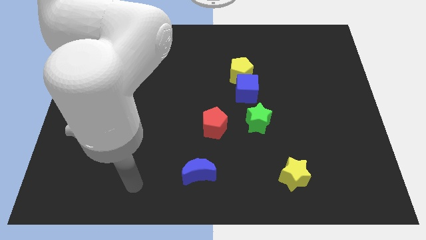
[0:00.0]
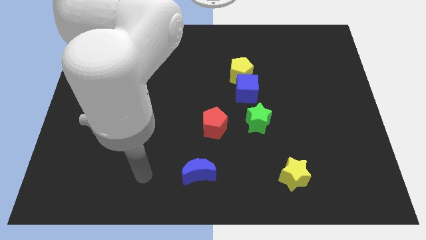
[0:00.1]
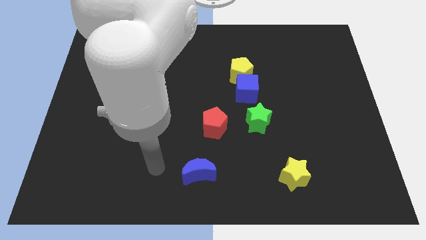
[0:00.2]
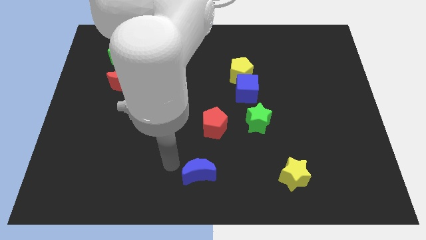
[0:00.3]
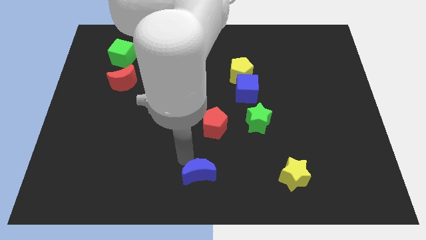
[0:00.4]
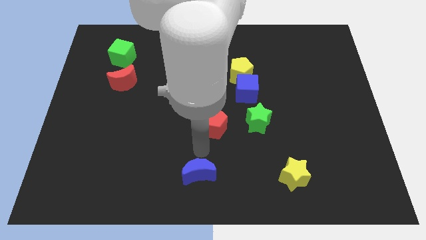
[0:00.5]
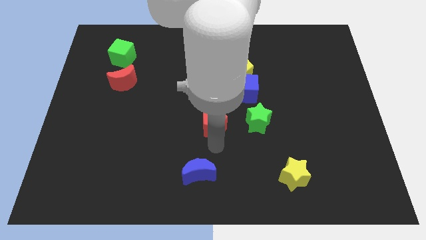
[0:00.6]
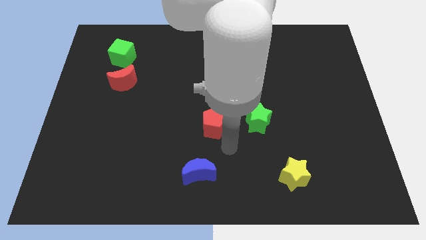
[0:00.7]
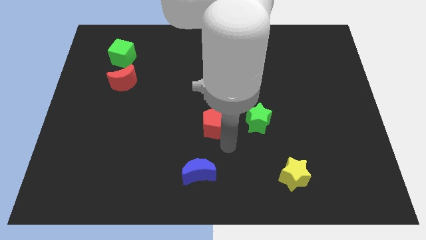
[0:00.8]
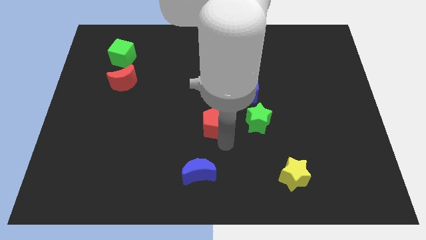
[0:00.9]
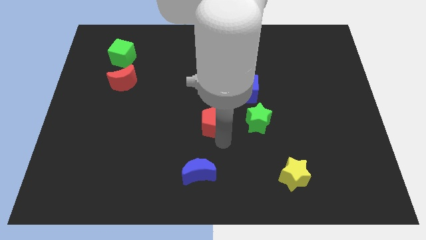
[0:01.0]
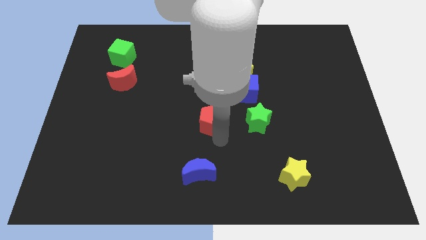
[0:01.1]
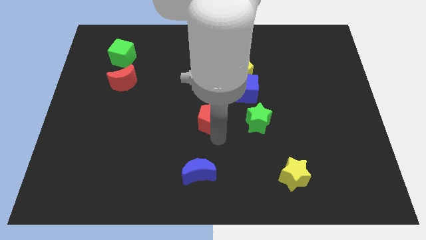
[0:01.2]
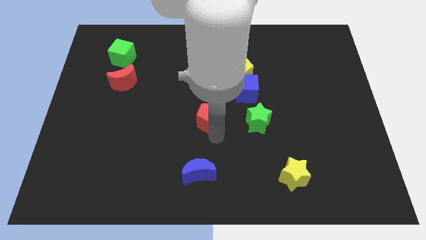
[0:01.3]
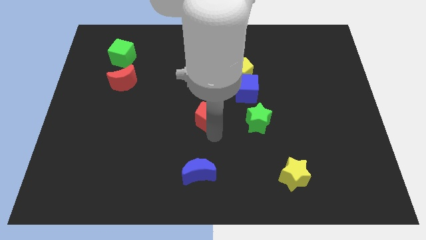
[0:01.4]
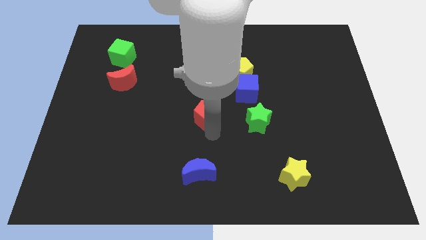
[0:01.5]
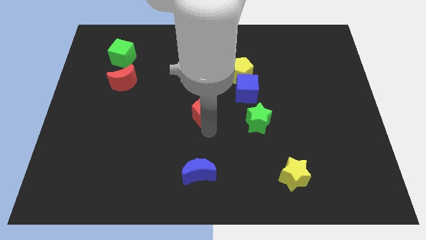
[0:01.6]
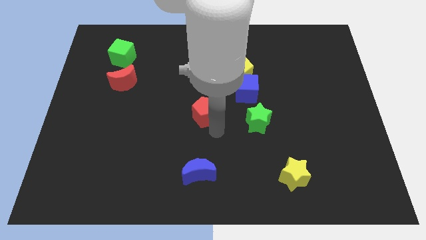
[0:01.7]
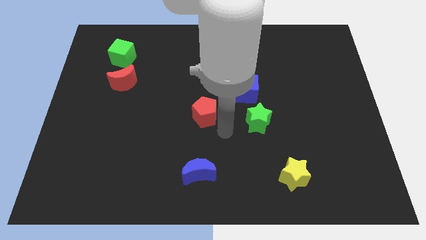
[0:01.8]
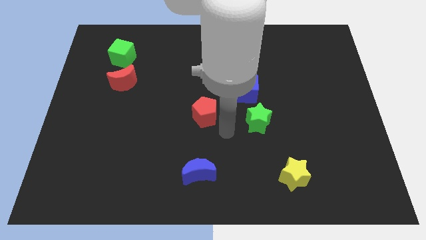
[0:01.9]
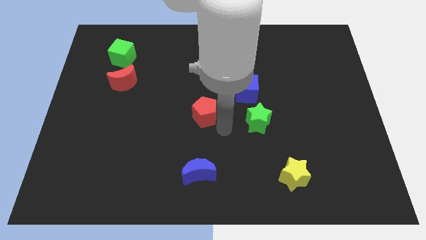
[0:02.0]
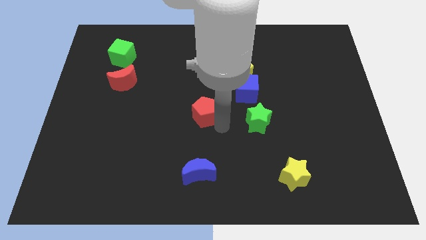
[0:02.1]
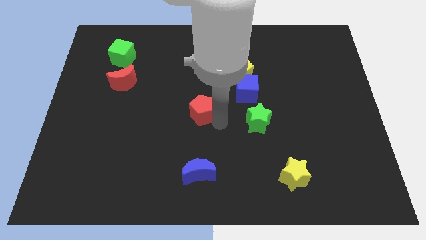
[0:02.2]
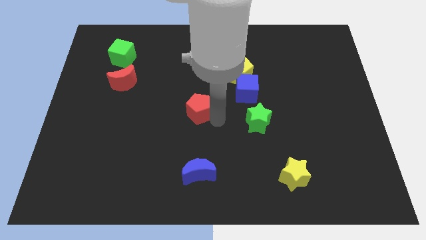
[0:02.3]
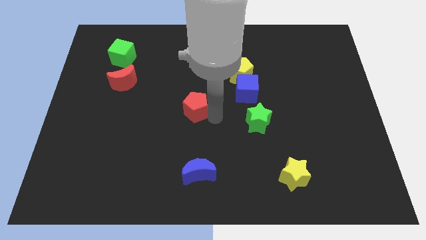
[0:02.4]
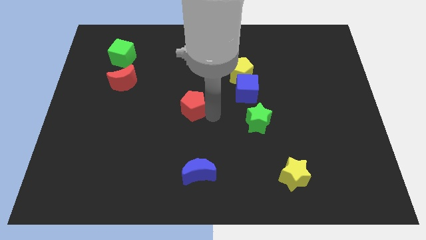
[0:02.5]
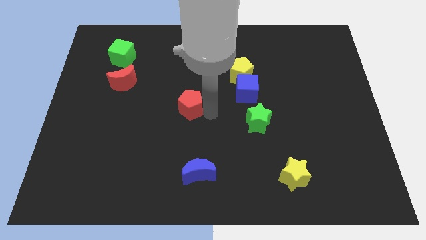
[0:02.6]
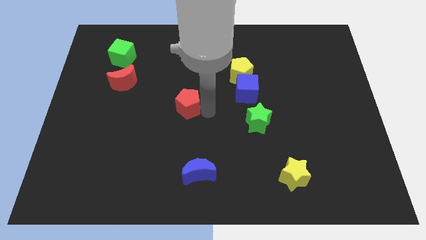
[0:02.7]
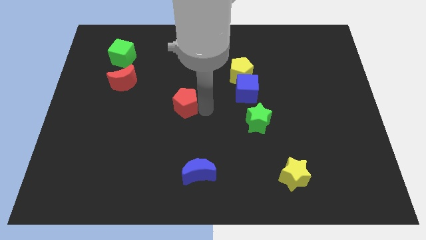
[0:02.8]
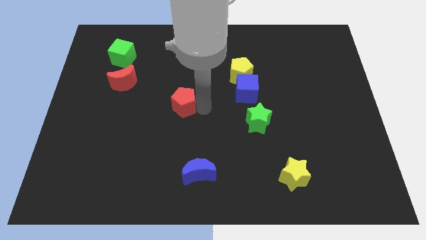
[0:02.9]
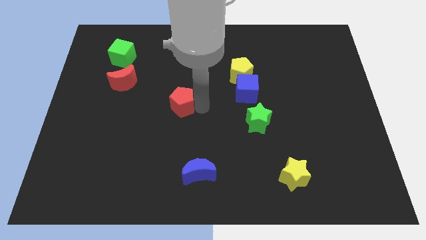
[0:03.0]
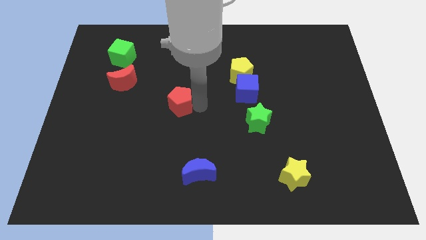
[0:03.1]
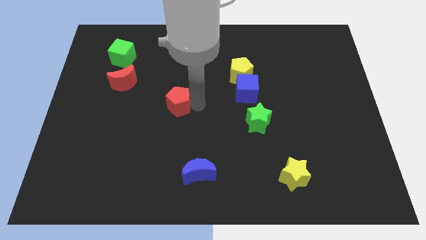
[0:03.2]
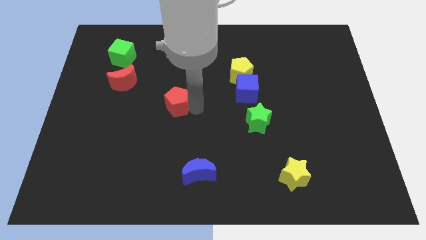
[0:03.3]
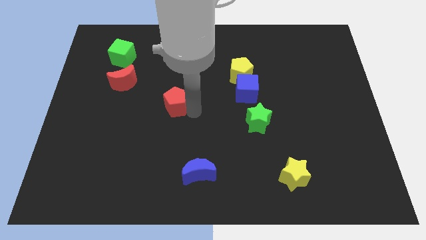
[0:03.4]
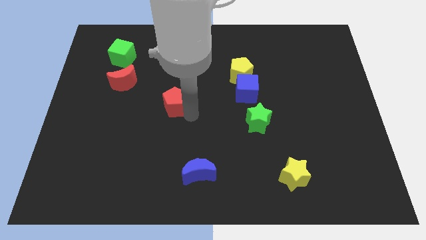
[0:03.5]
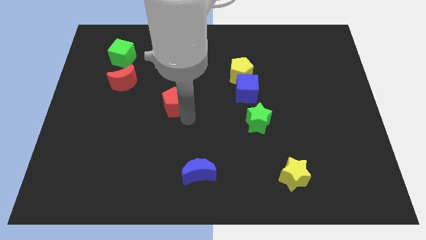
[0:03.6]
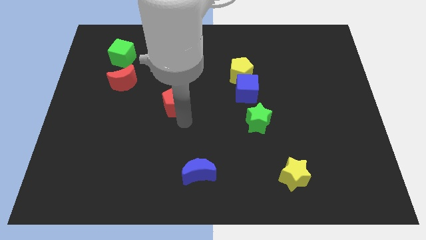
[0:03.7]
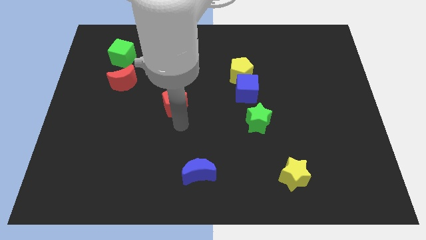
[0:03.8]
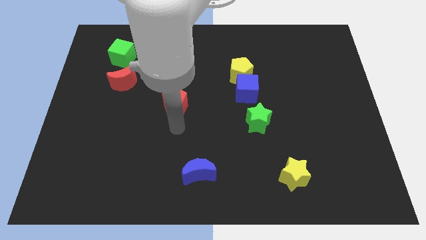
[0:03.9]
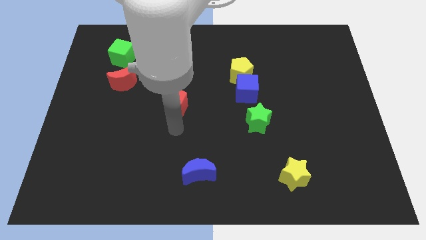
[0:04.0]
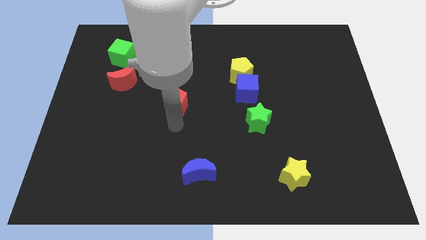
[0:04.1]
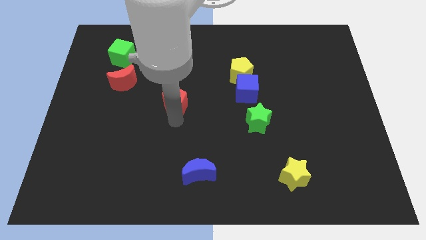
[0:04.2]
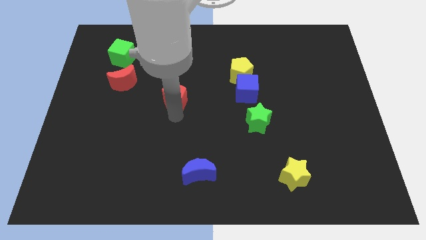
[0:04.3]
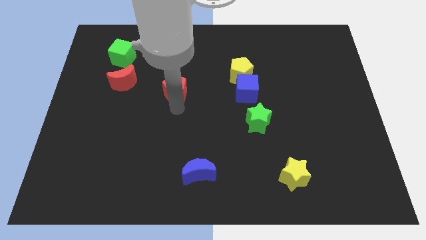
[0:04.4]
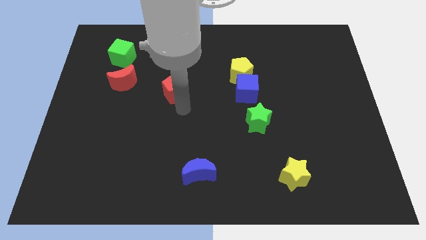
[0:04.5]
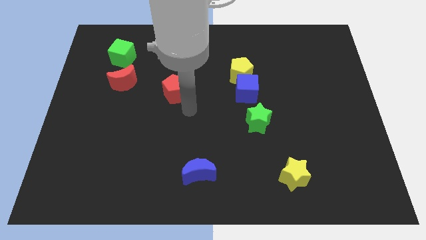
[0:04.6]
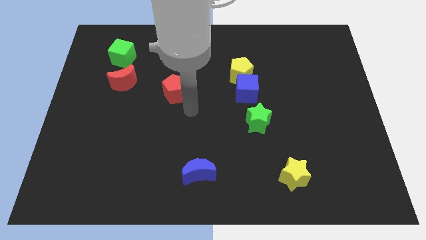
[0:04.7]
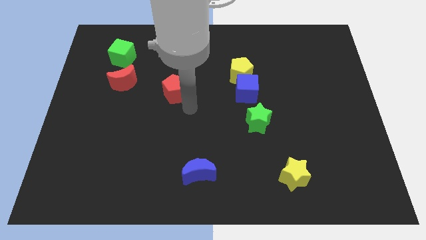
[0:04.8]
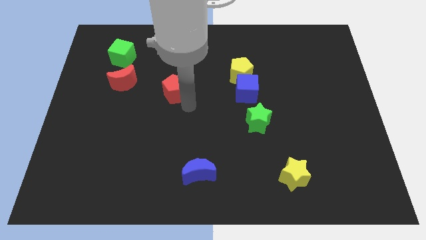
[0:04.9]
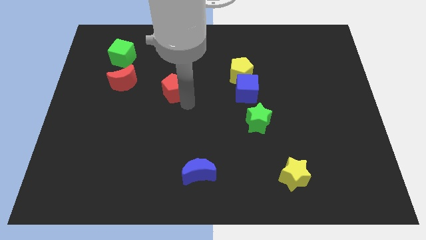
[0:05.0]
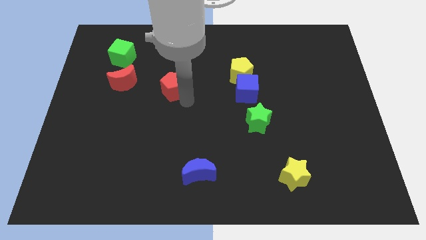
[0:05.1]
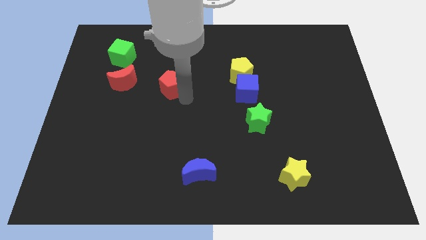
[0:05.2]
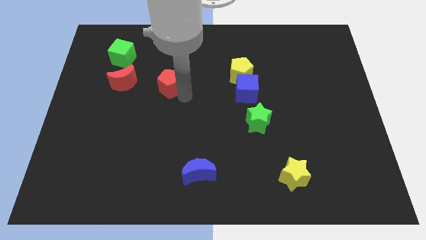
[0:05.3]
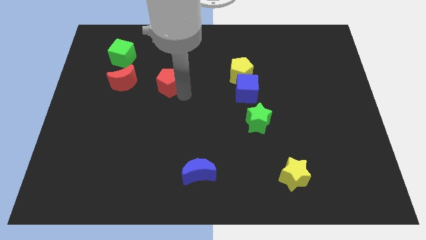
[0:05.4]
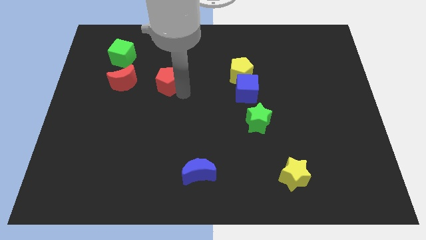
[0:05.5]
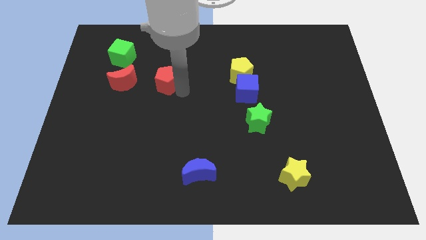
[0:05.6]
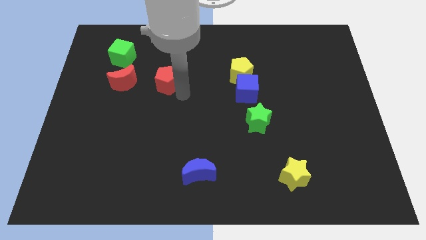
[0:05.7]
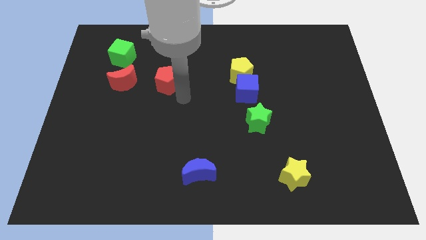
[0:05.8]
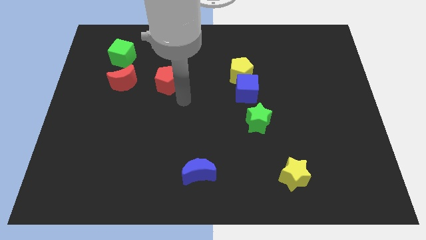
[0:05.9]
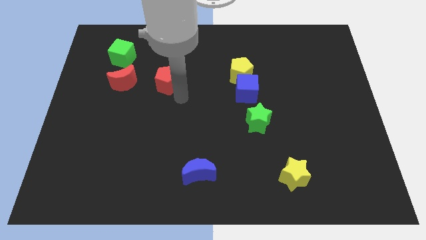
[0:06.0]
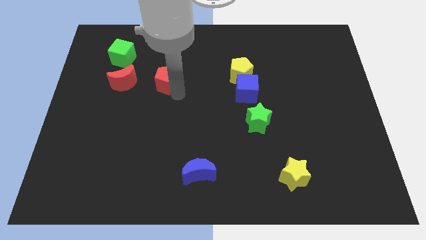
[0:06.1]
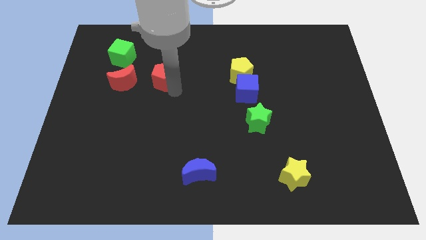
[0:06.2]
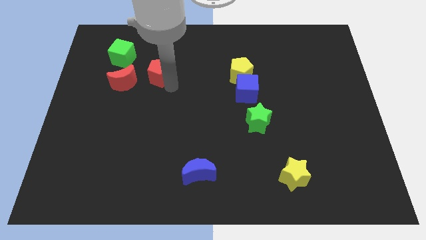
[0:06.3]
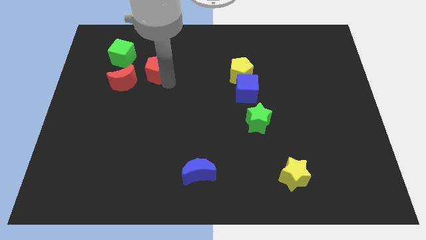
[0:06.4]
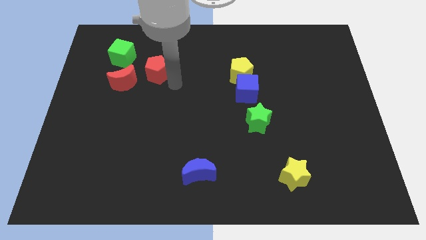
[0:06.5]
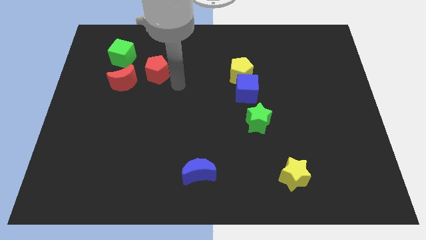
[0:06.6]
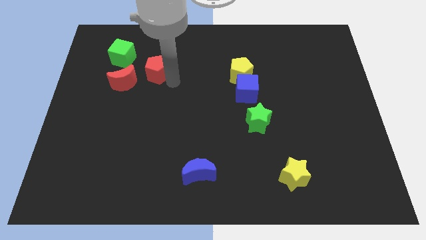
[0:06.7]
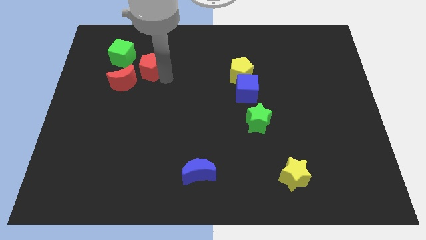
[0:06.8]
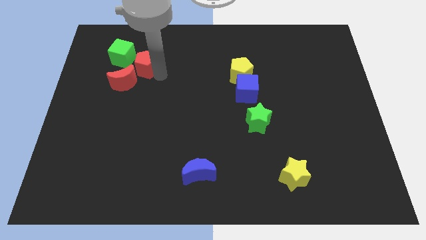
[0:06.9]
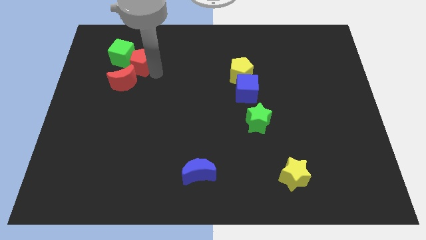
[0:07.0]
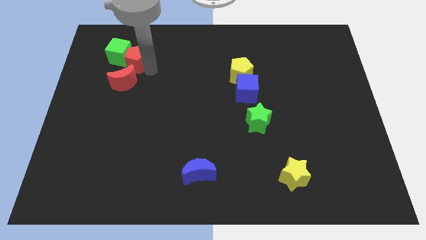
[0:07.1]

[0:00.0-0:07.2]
move the red pentagon towards the green cube
